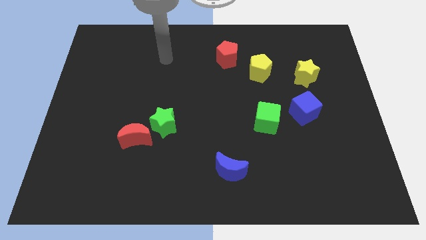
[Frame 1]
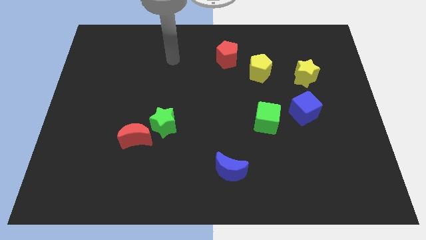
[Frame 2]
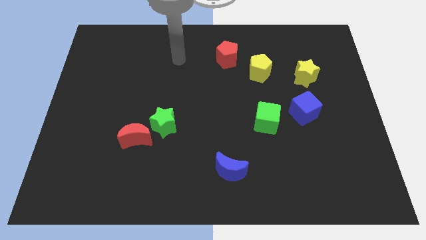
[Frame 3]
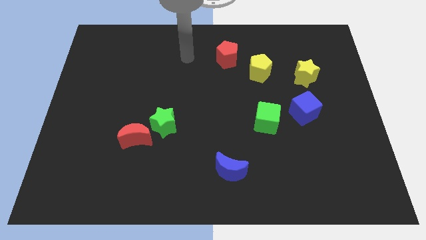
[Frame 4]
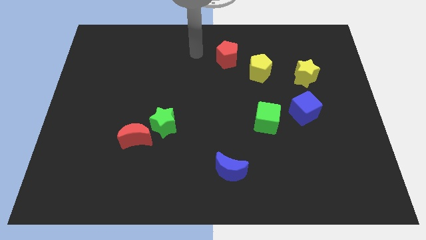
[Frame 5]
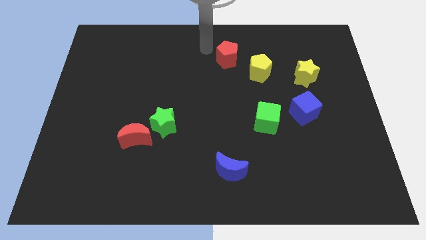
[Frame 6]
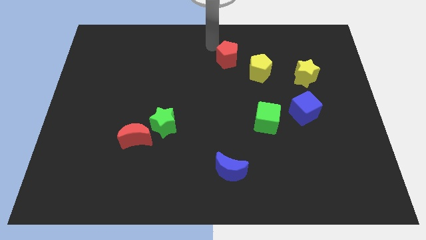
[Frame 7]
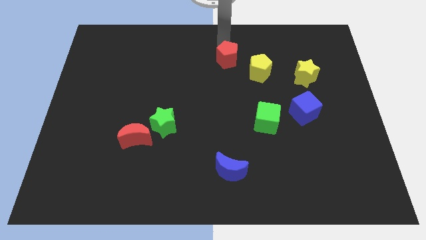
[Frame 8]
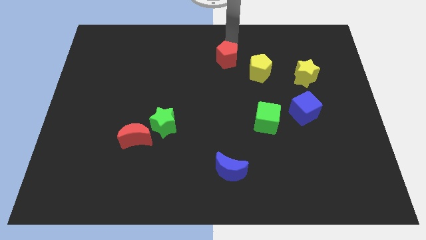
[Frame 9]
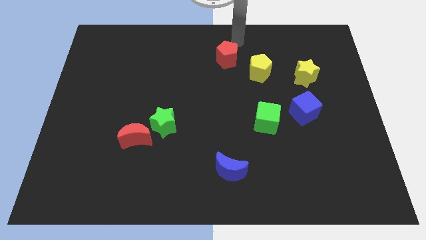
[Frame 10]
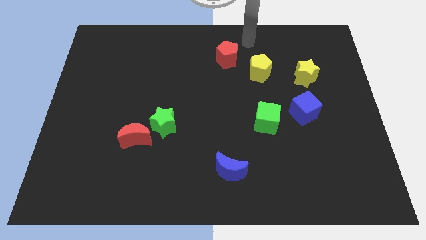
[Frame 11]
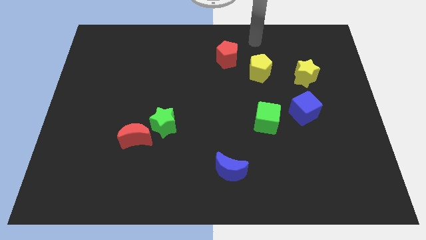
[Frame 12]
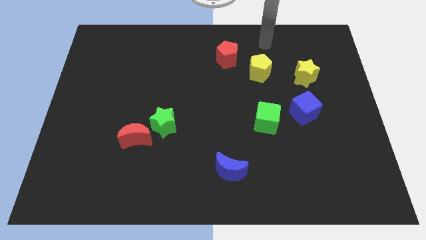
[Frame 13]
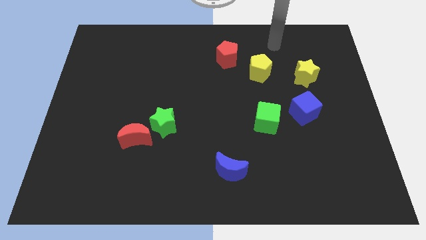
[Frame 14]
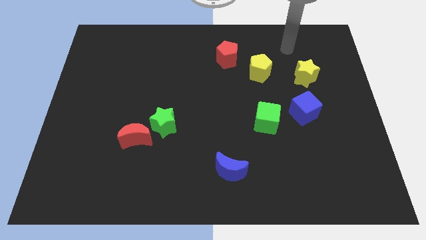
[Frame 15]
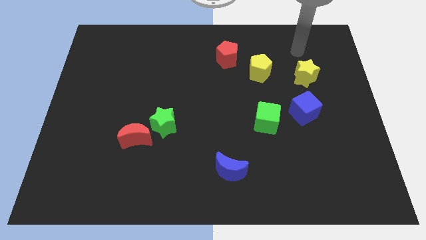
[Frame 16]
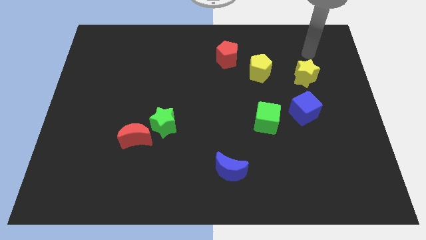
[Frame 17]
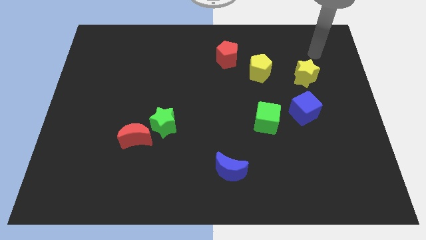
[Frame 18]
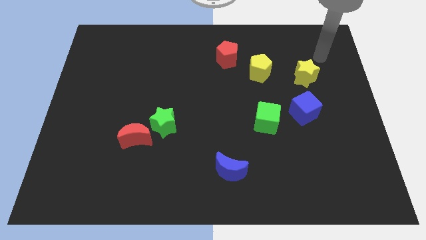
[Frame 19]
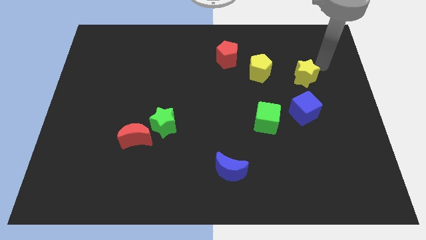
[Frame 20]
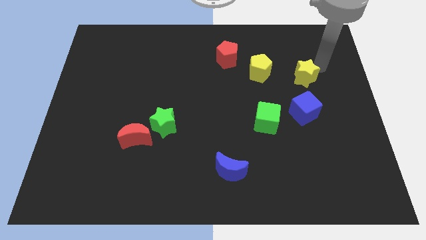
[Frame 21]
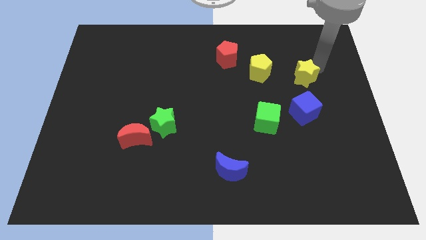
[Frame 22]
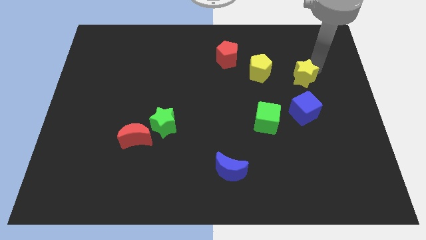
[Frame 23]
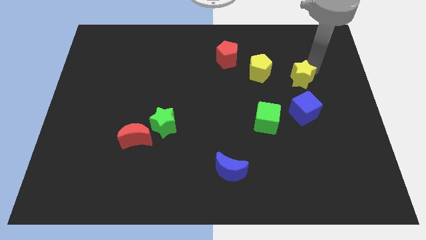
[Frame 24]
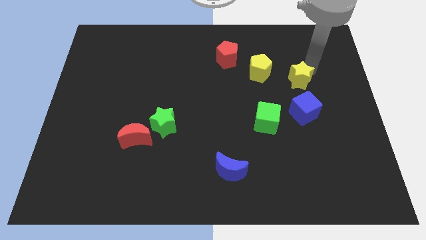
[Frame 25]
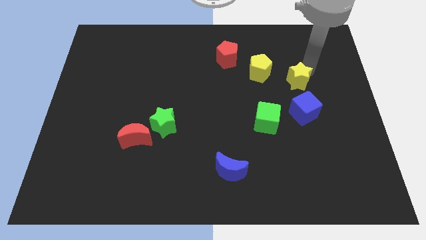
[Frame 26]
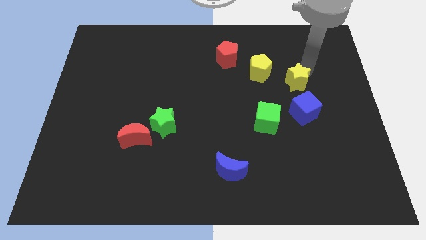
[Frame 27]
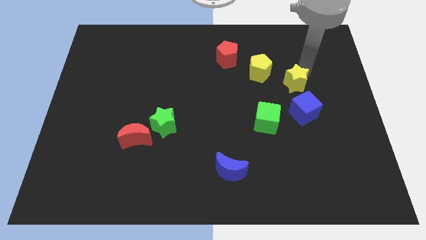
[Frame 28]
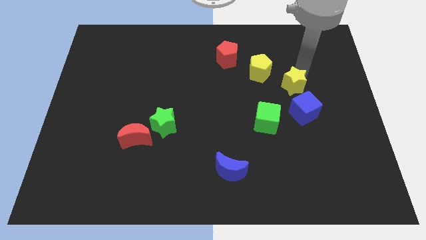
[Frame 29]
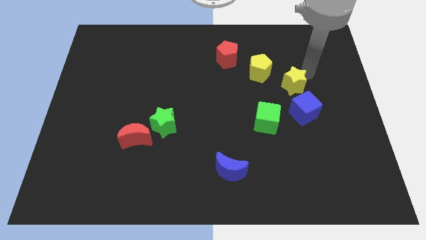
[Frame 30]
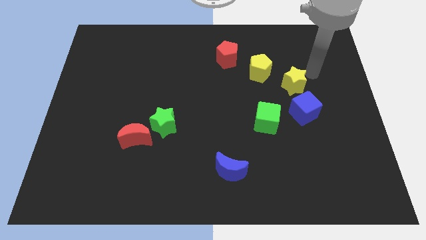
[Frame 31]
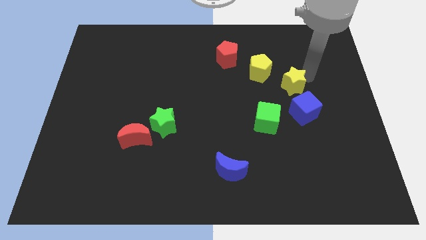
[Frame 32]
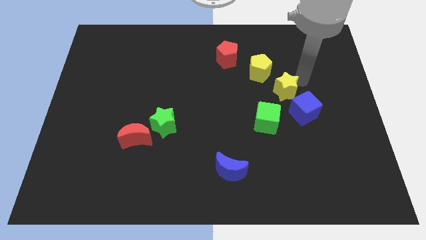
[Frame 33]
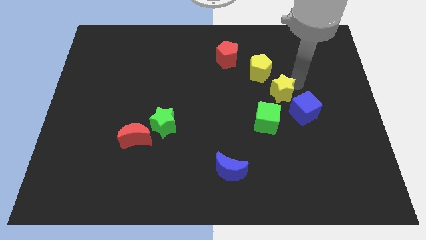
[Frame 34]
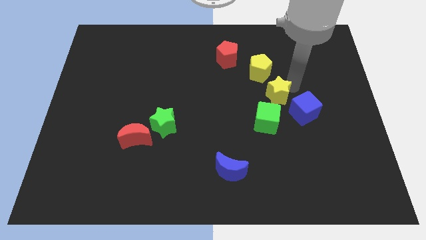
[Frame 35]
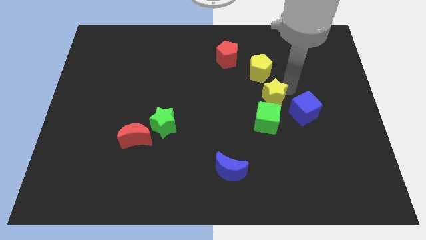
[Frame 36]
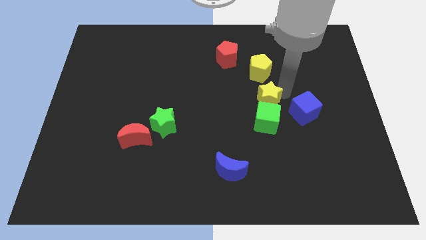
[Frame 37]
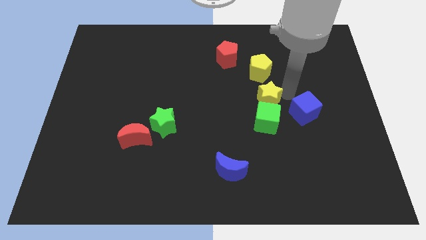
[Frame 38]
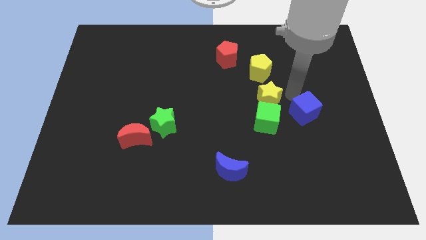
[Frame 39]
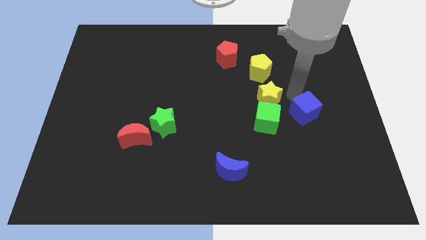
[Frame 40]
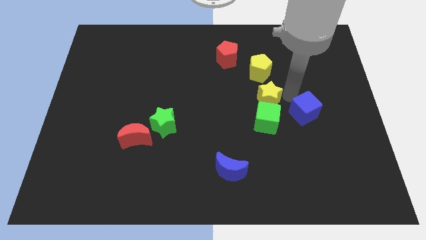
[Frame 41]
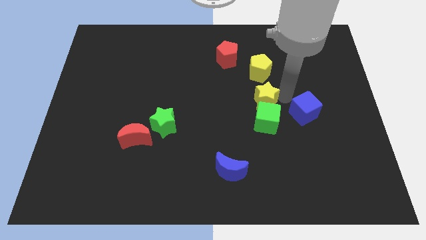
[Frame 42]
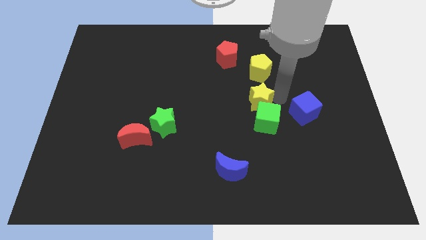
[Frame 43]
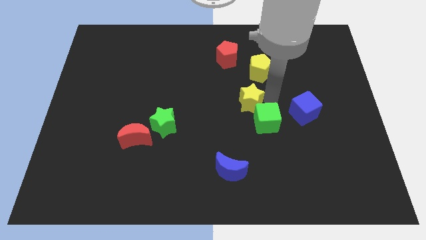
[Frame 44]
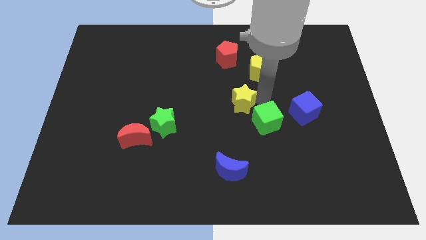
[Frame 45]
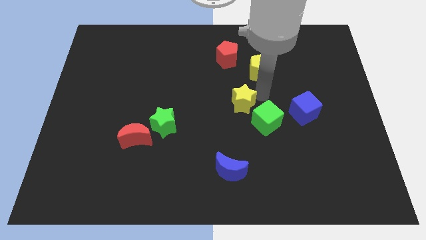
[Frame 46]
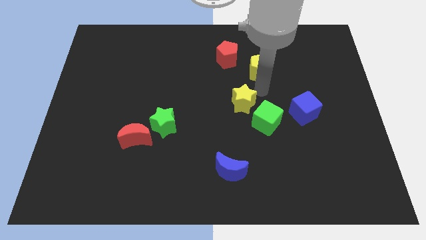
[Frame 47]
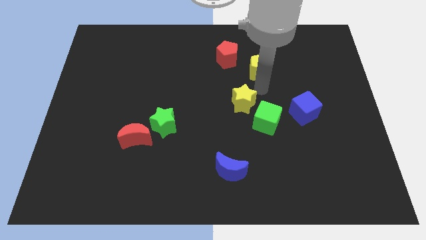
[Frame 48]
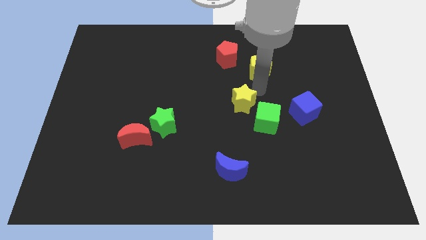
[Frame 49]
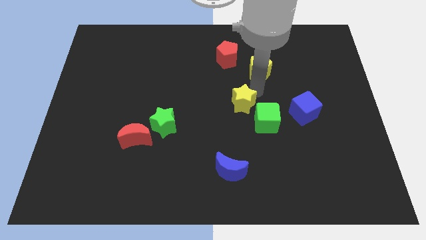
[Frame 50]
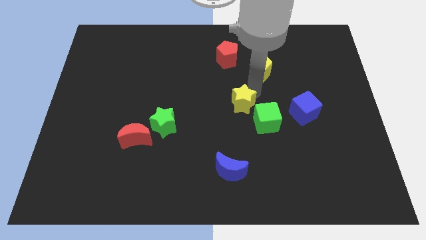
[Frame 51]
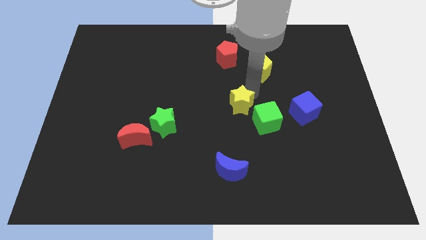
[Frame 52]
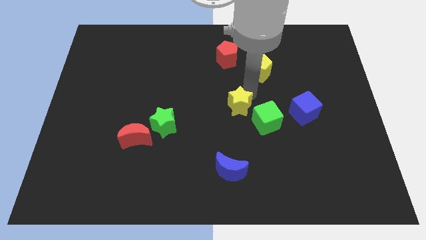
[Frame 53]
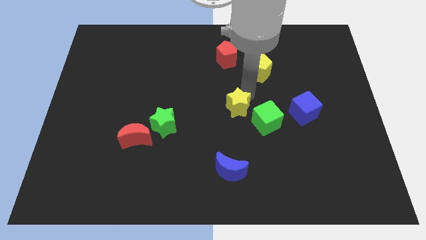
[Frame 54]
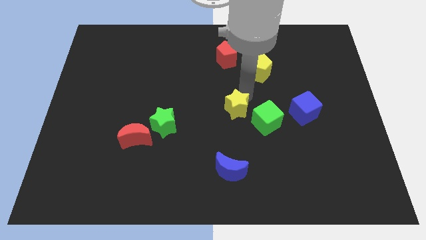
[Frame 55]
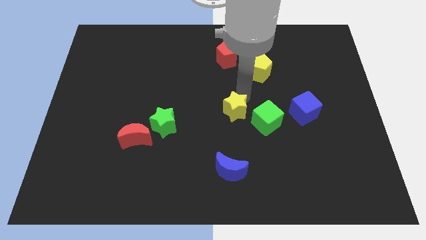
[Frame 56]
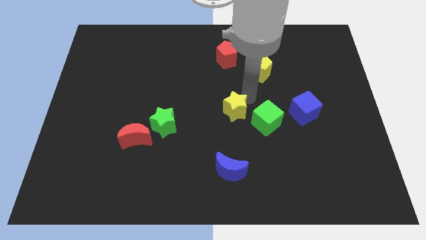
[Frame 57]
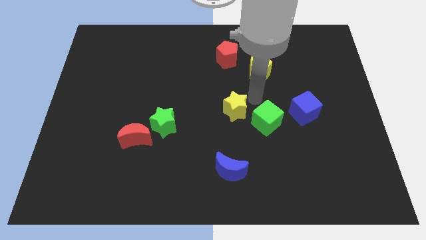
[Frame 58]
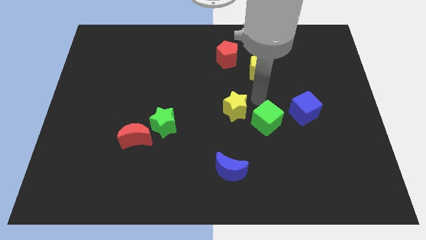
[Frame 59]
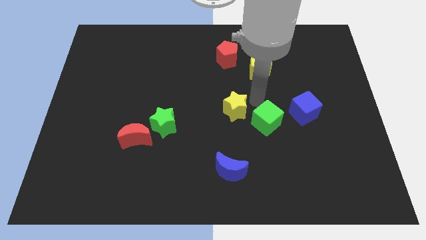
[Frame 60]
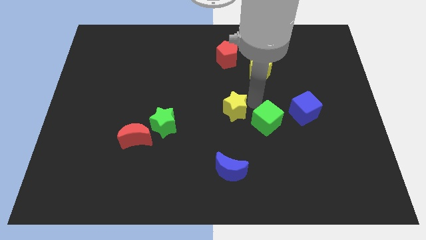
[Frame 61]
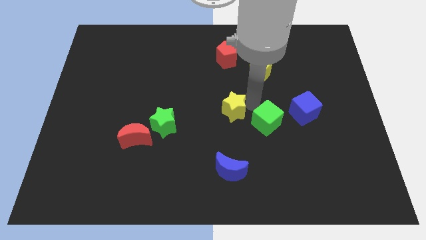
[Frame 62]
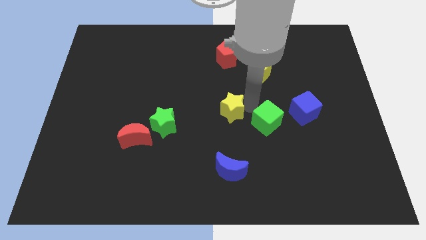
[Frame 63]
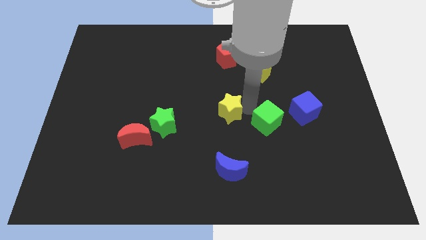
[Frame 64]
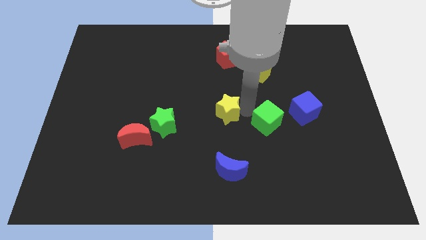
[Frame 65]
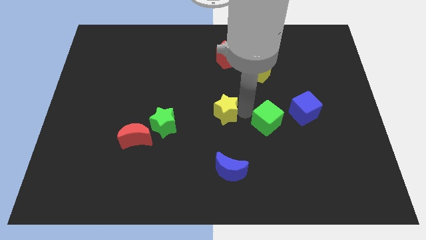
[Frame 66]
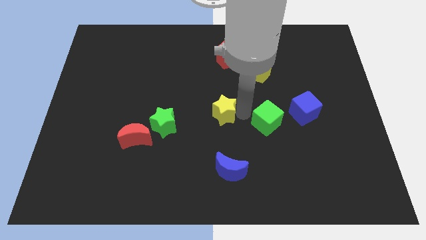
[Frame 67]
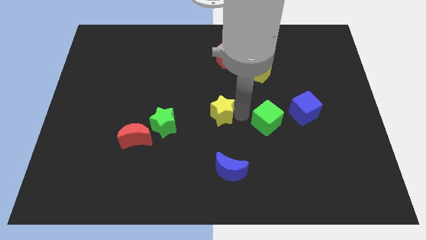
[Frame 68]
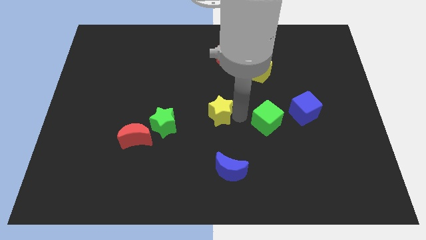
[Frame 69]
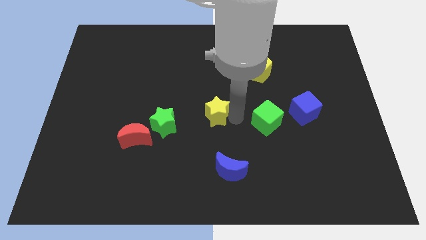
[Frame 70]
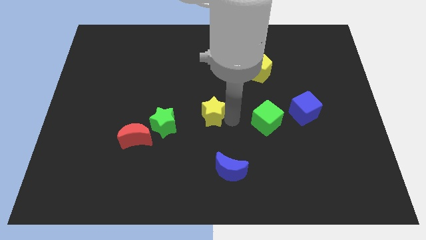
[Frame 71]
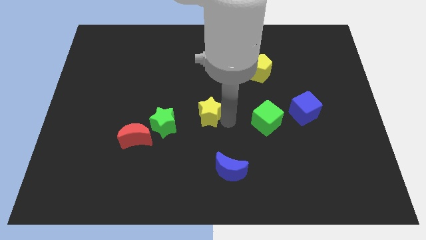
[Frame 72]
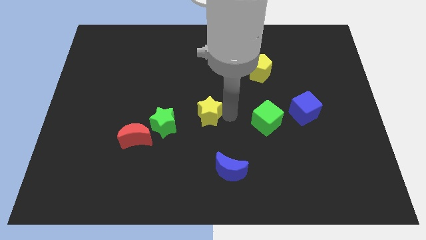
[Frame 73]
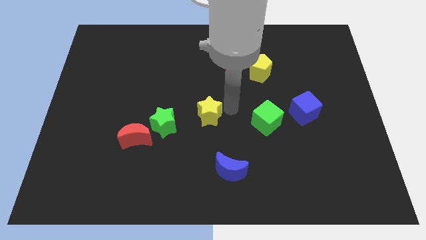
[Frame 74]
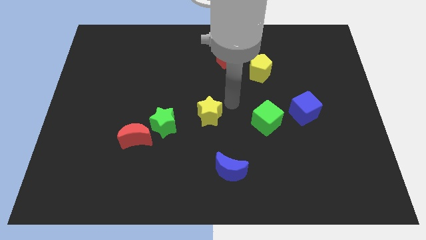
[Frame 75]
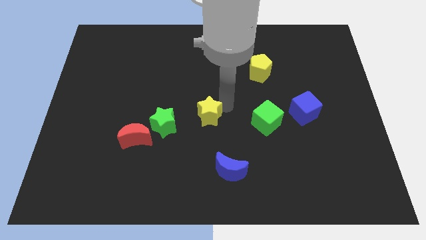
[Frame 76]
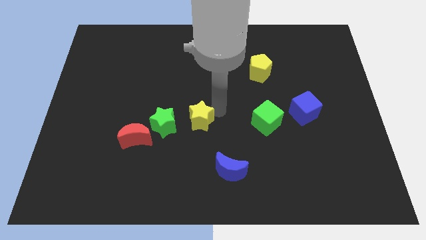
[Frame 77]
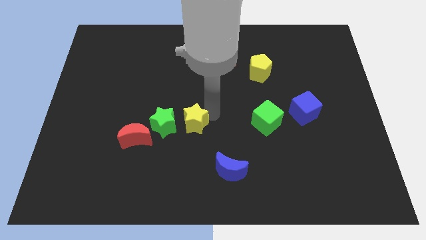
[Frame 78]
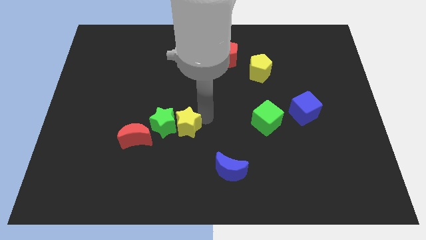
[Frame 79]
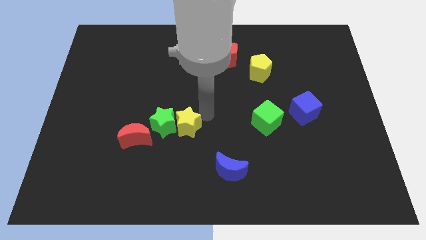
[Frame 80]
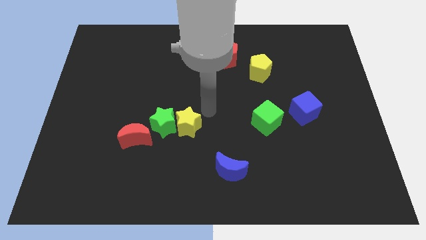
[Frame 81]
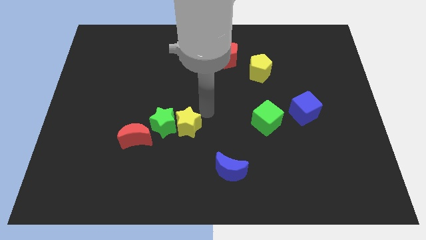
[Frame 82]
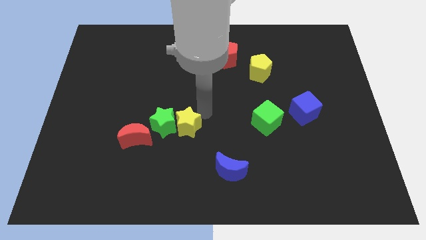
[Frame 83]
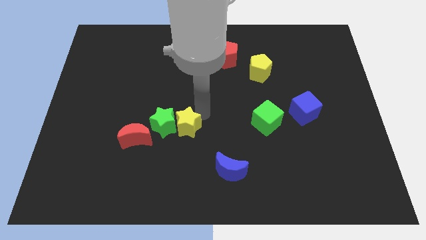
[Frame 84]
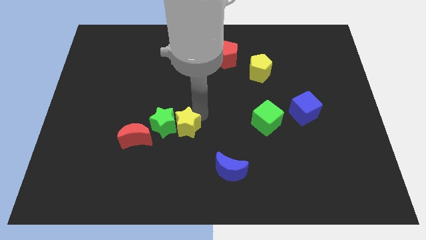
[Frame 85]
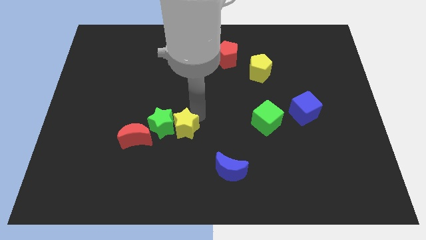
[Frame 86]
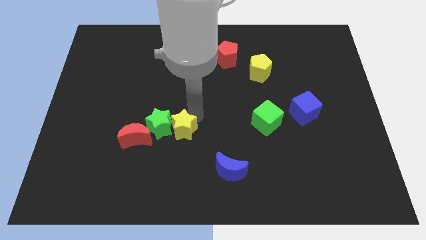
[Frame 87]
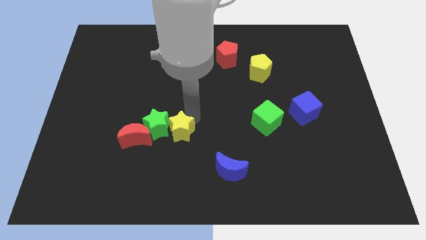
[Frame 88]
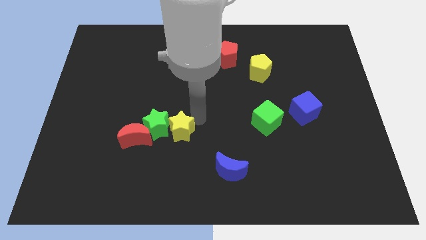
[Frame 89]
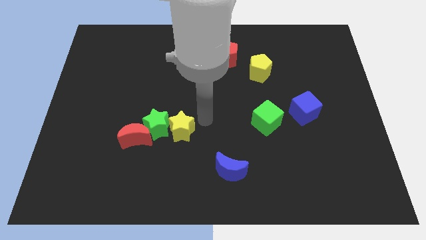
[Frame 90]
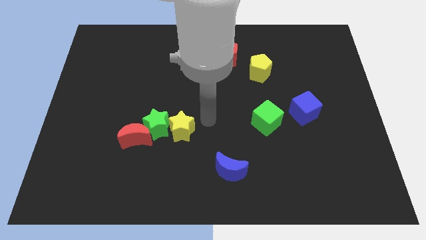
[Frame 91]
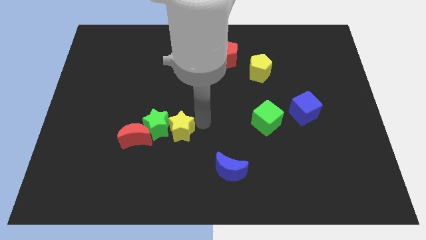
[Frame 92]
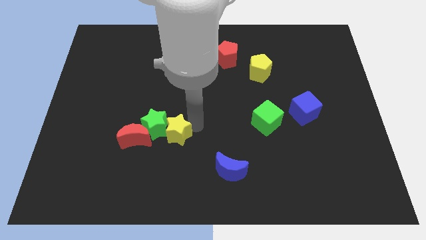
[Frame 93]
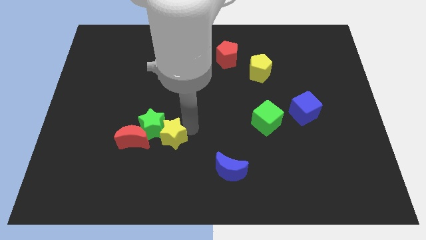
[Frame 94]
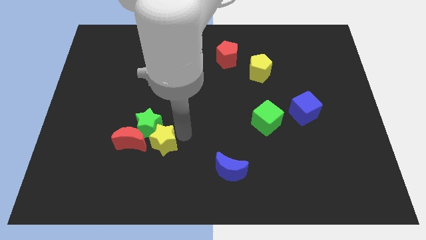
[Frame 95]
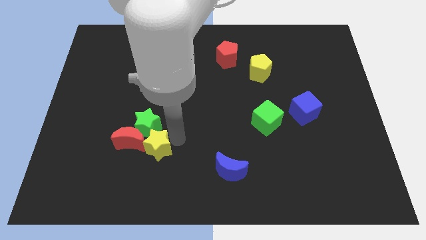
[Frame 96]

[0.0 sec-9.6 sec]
move the yellow star to the red moon
